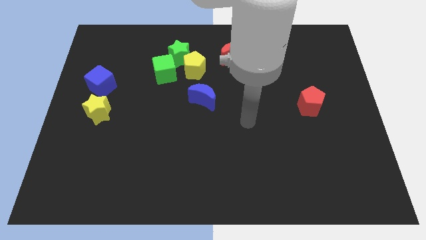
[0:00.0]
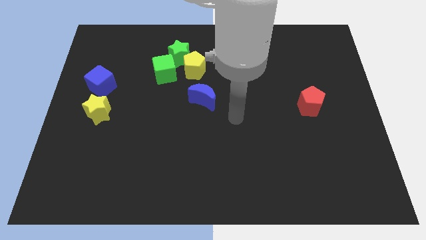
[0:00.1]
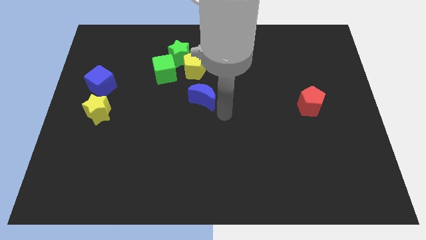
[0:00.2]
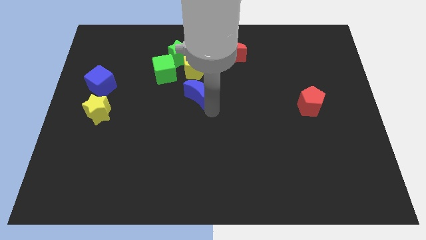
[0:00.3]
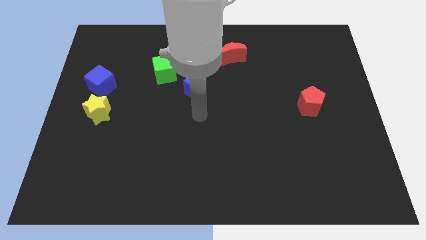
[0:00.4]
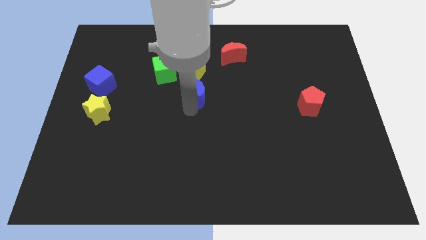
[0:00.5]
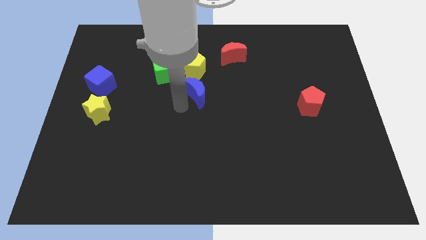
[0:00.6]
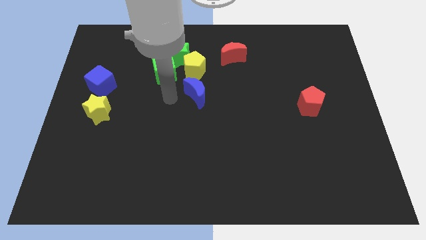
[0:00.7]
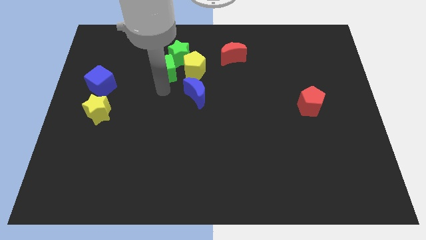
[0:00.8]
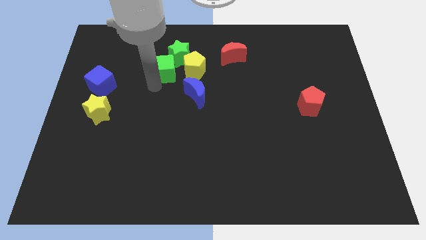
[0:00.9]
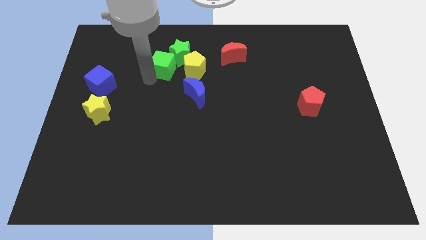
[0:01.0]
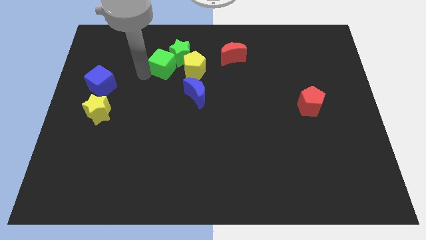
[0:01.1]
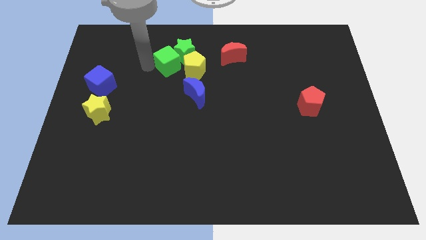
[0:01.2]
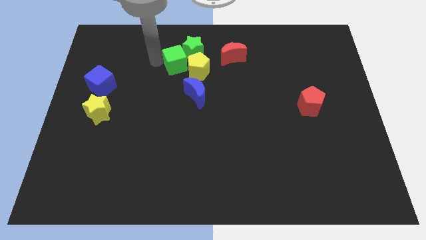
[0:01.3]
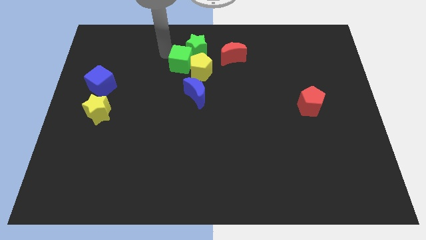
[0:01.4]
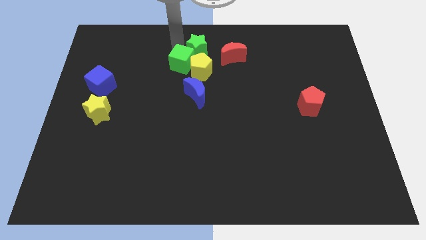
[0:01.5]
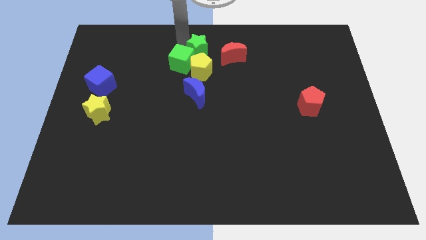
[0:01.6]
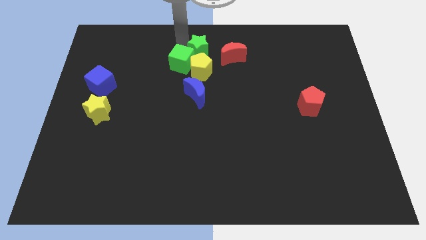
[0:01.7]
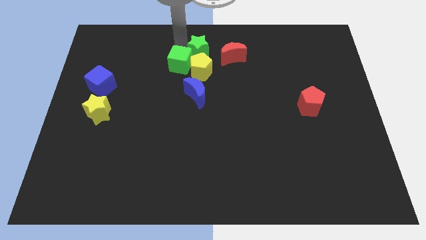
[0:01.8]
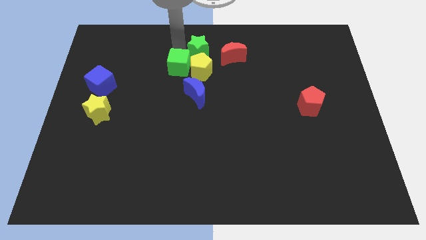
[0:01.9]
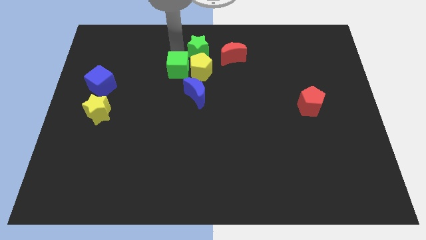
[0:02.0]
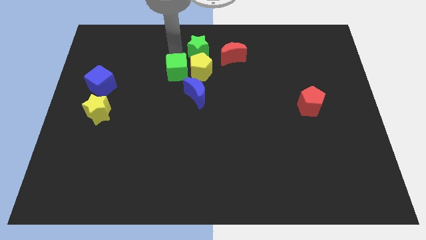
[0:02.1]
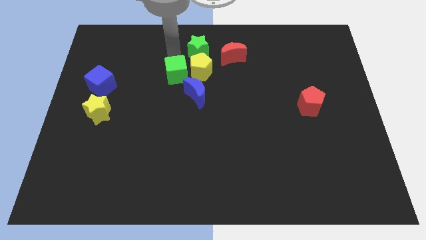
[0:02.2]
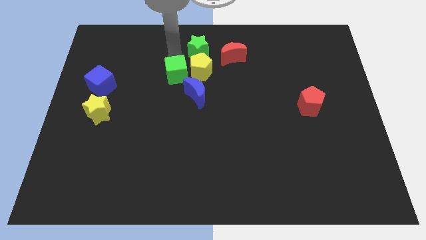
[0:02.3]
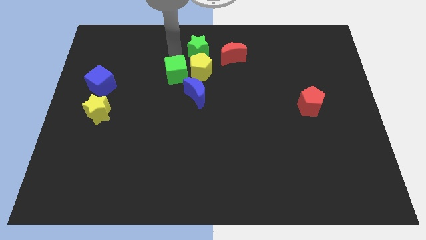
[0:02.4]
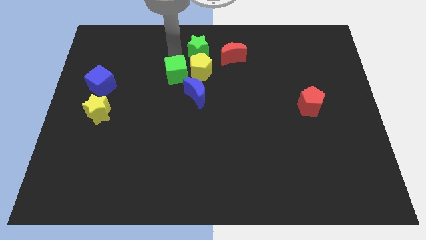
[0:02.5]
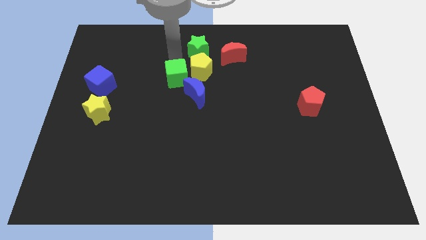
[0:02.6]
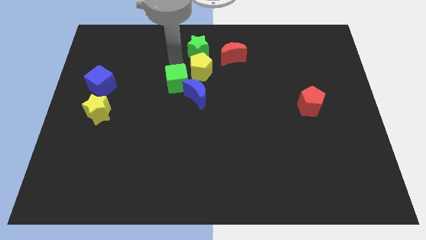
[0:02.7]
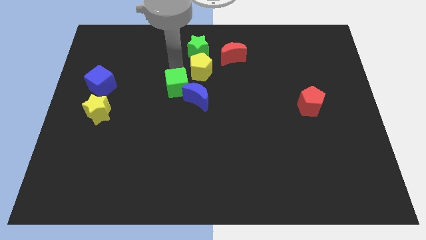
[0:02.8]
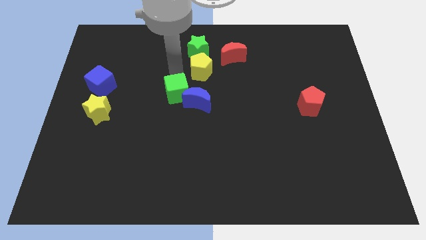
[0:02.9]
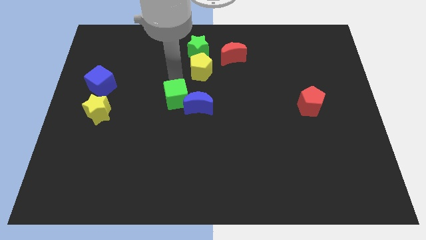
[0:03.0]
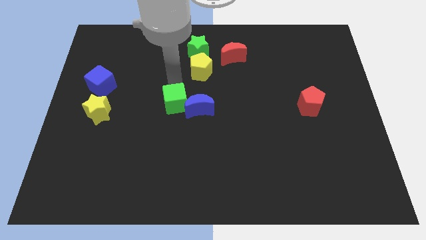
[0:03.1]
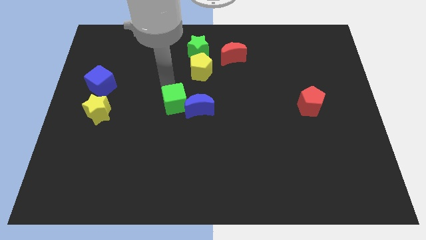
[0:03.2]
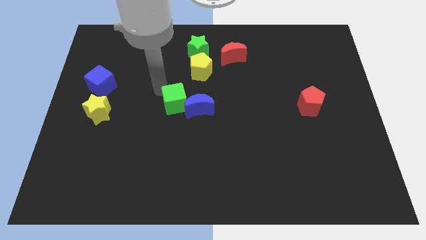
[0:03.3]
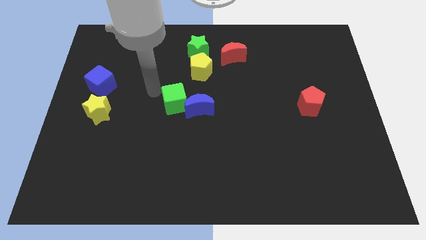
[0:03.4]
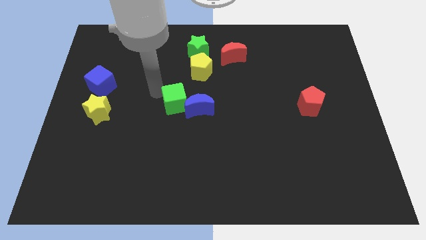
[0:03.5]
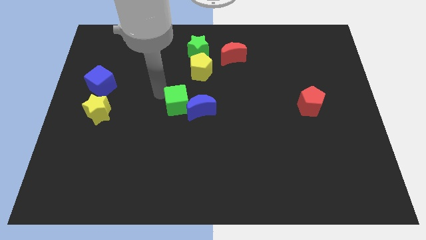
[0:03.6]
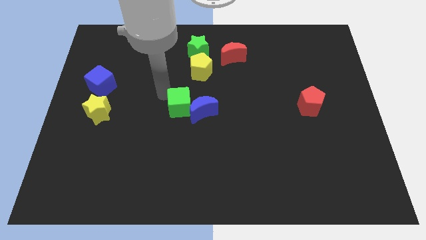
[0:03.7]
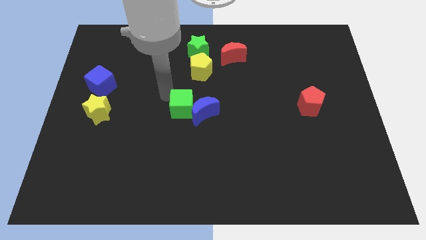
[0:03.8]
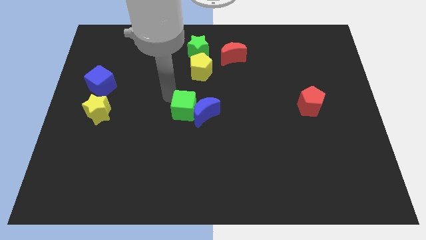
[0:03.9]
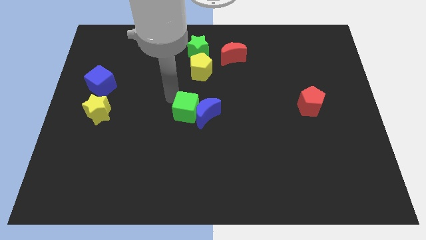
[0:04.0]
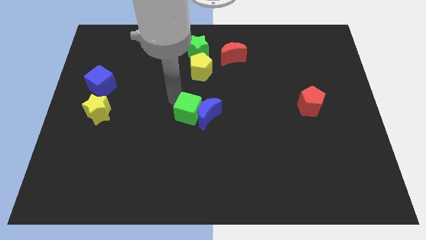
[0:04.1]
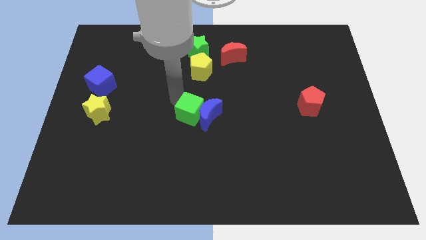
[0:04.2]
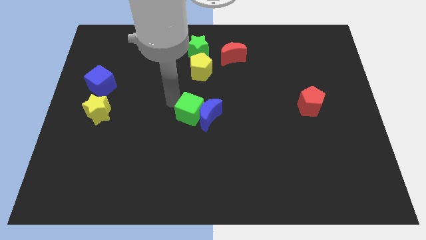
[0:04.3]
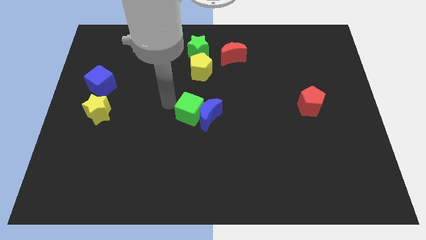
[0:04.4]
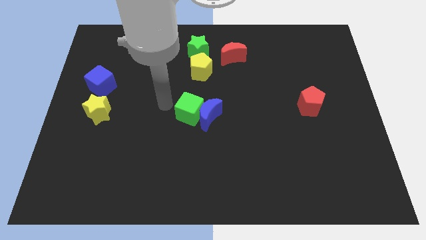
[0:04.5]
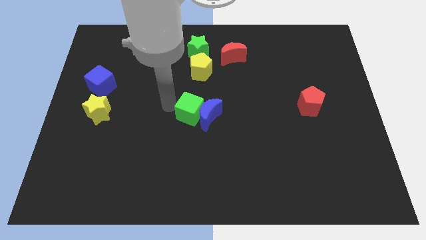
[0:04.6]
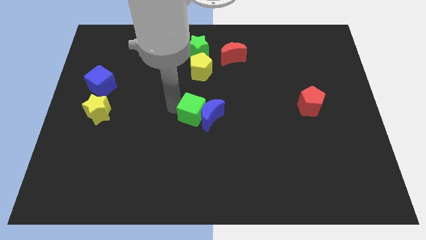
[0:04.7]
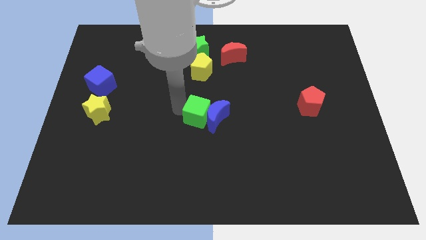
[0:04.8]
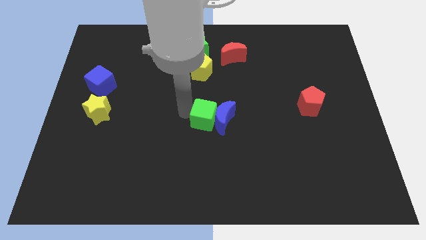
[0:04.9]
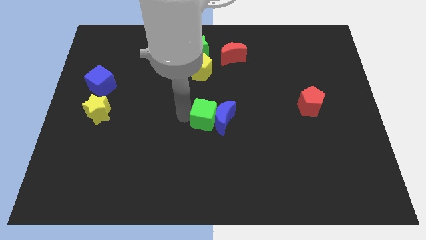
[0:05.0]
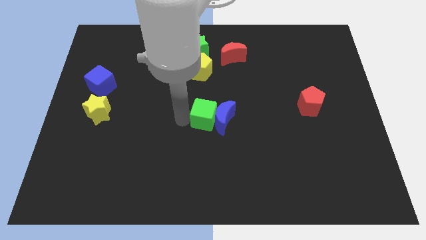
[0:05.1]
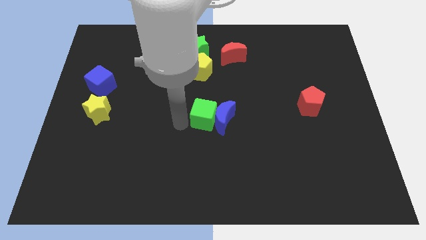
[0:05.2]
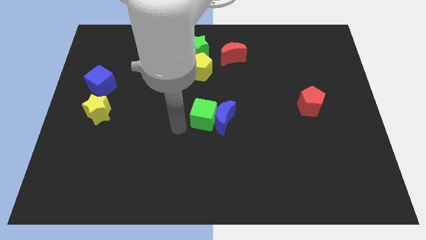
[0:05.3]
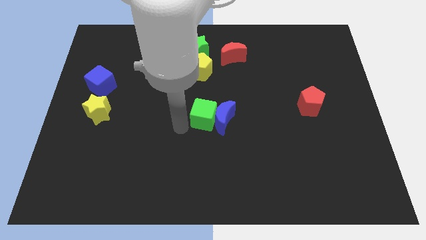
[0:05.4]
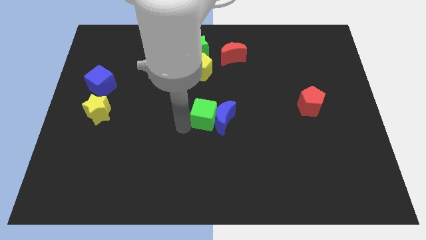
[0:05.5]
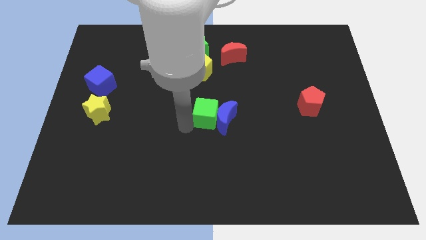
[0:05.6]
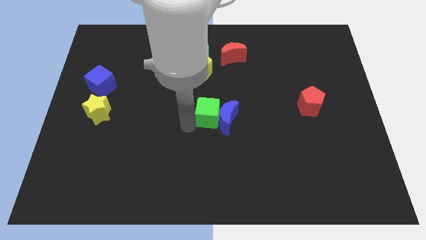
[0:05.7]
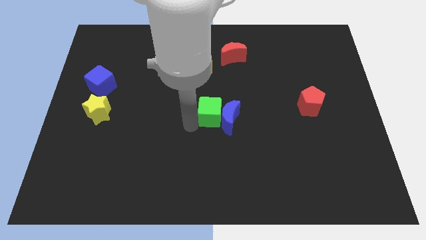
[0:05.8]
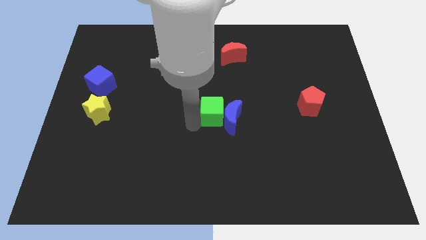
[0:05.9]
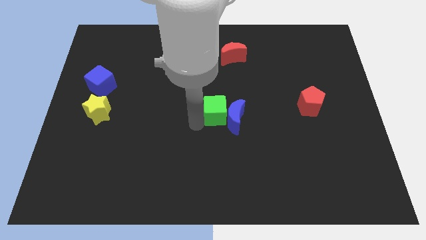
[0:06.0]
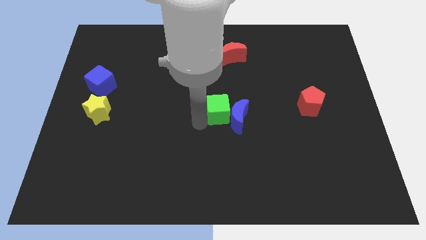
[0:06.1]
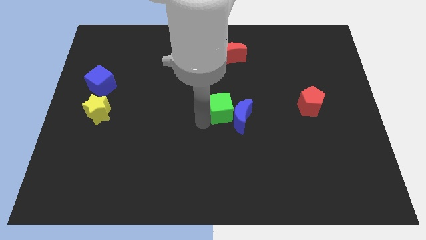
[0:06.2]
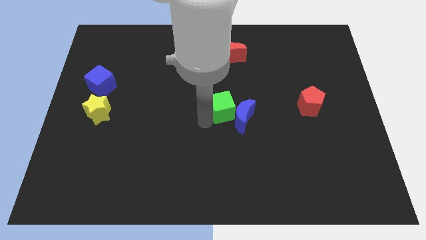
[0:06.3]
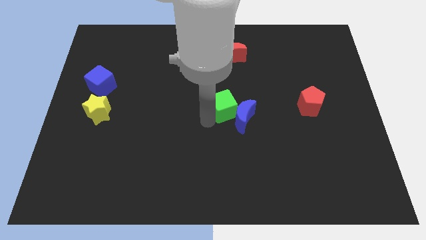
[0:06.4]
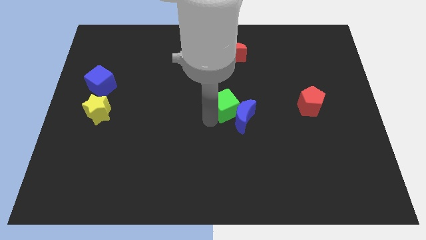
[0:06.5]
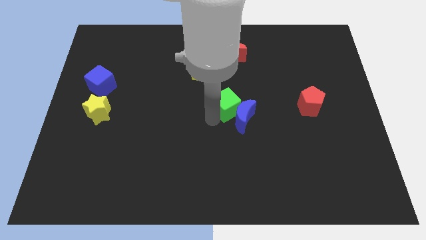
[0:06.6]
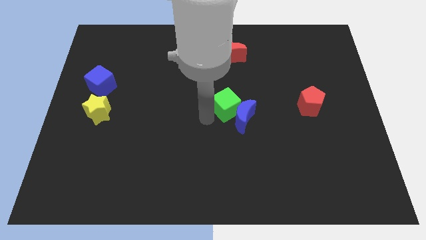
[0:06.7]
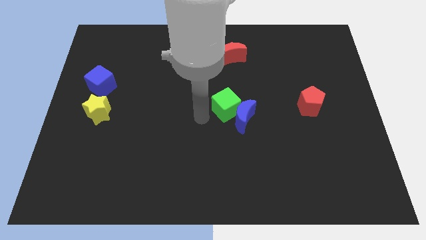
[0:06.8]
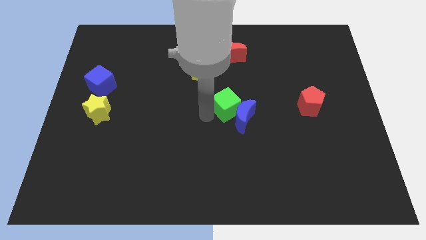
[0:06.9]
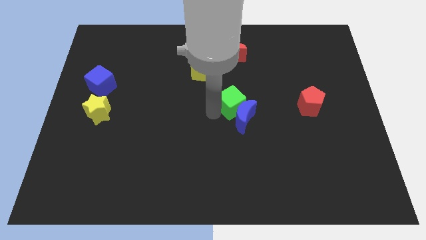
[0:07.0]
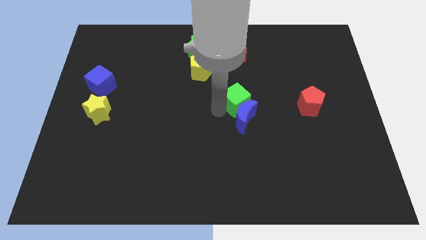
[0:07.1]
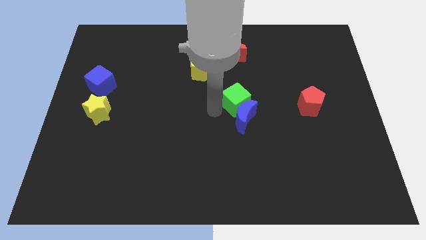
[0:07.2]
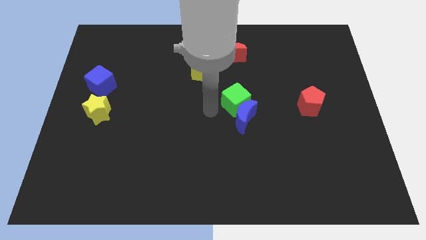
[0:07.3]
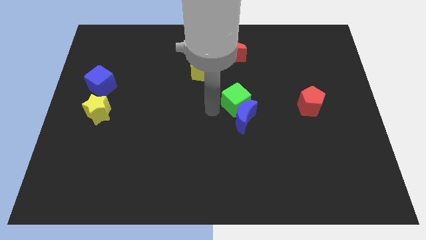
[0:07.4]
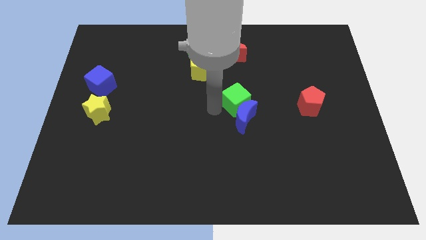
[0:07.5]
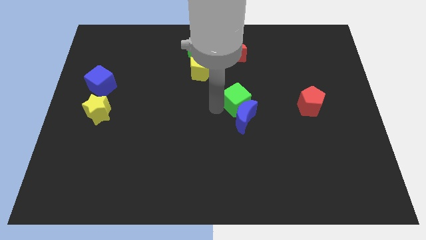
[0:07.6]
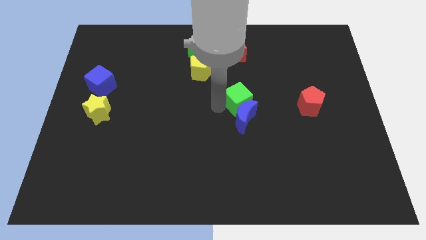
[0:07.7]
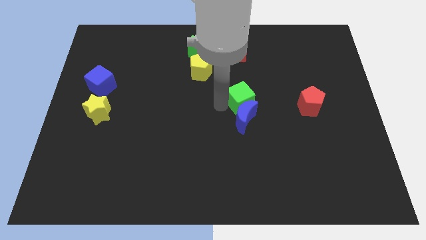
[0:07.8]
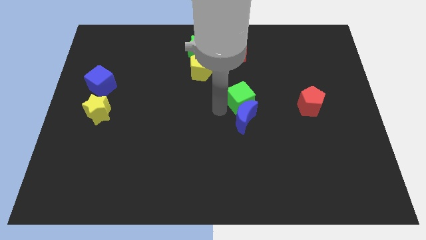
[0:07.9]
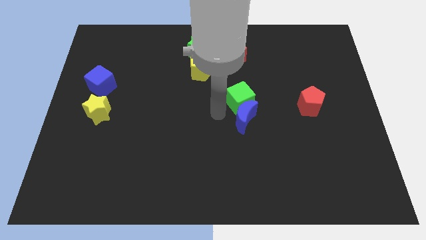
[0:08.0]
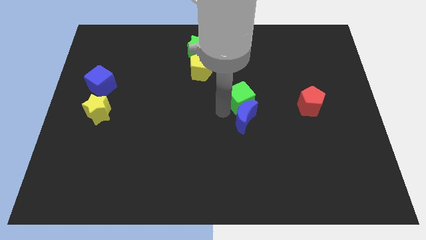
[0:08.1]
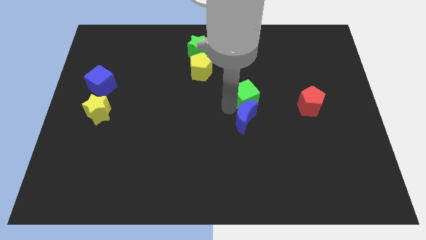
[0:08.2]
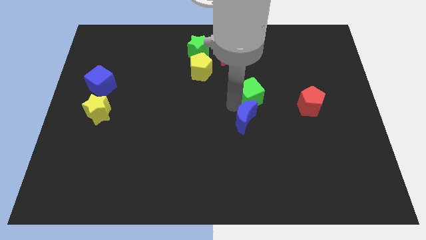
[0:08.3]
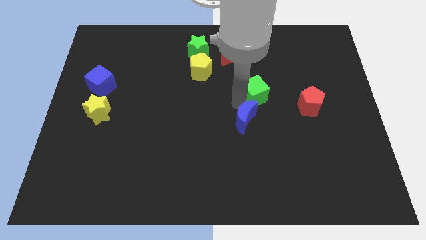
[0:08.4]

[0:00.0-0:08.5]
push the green cube to the right
